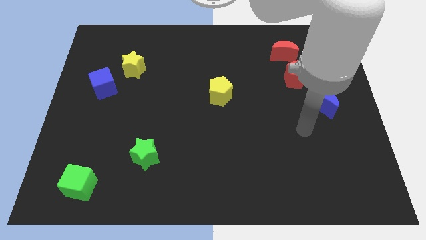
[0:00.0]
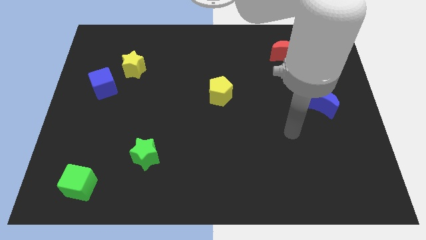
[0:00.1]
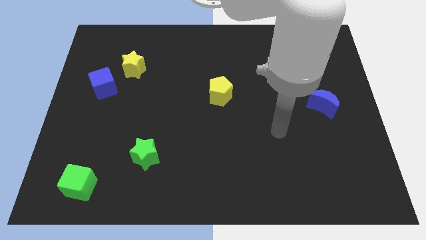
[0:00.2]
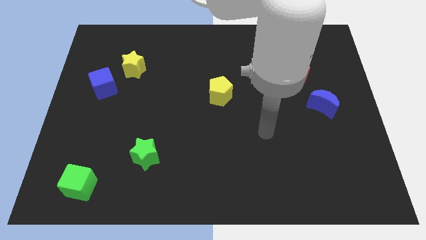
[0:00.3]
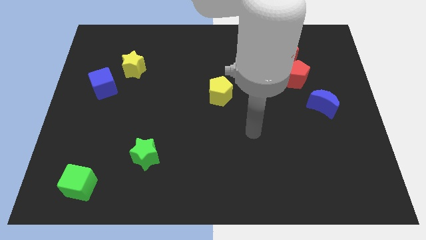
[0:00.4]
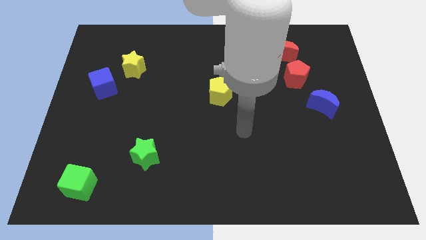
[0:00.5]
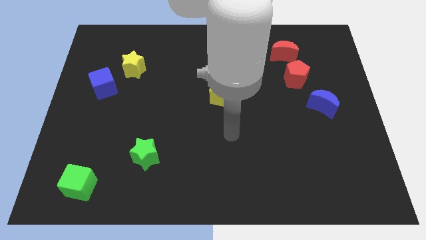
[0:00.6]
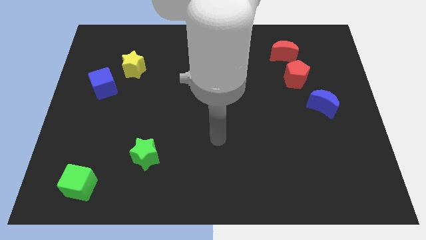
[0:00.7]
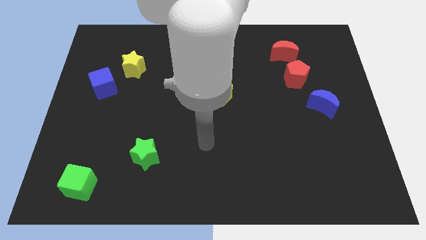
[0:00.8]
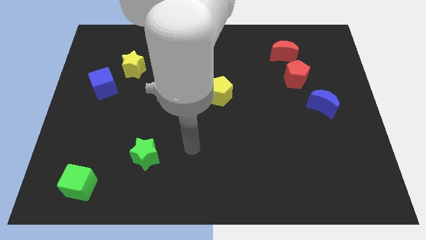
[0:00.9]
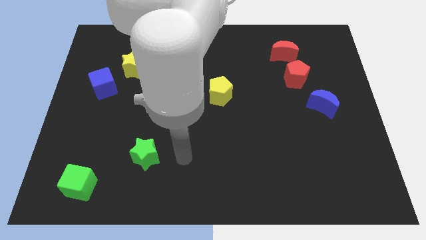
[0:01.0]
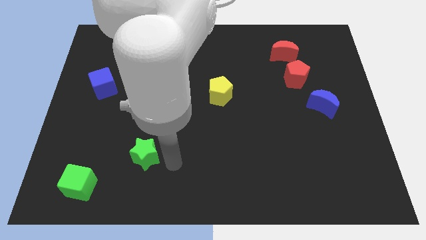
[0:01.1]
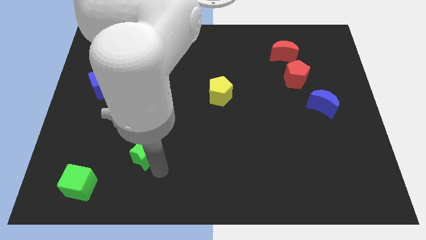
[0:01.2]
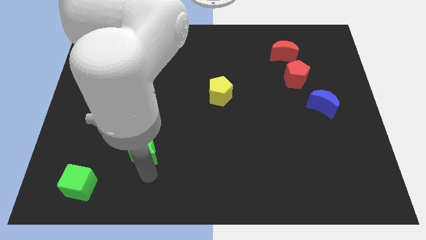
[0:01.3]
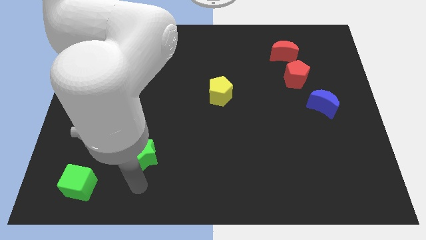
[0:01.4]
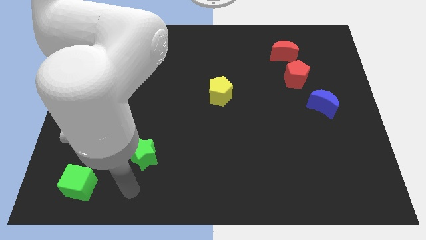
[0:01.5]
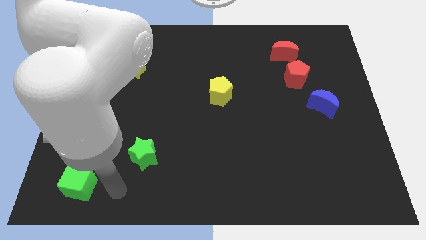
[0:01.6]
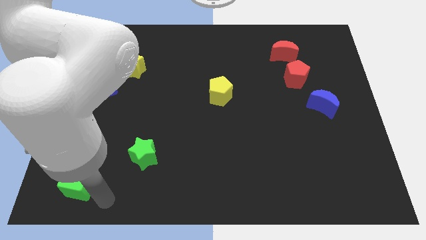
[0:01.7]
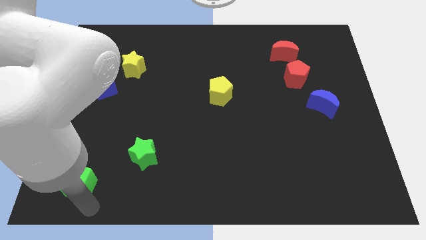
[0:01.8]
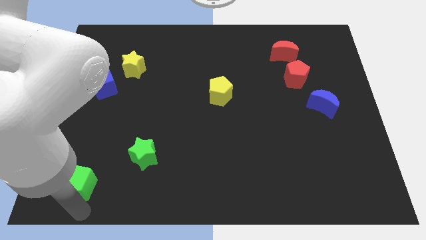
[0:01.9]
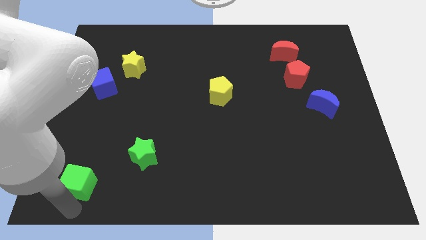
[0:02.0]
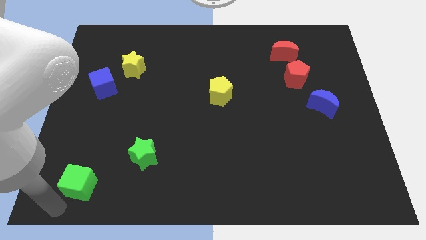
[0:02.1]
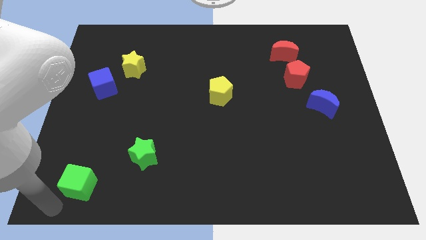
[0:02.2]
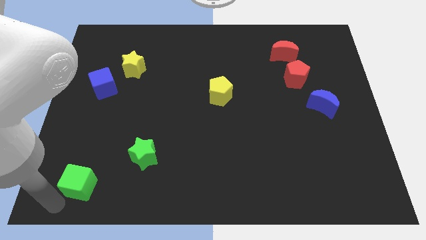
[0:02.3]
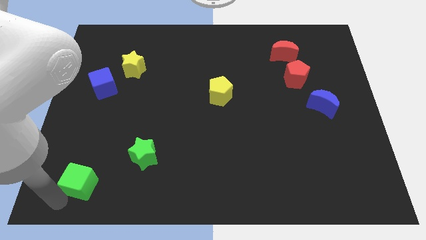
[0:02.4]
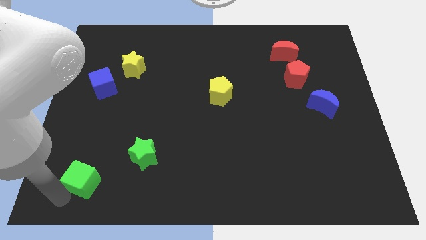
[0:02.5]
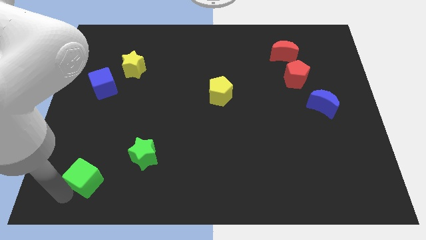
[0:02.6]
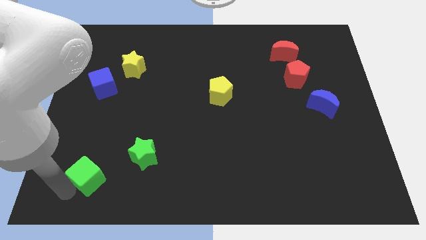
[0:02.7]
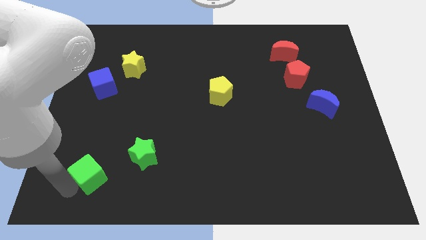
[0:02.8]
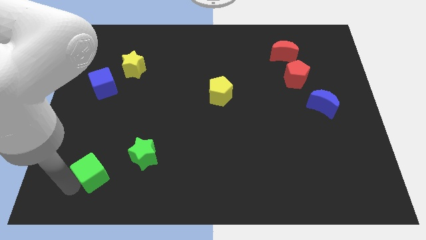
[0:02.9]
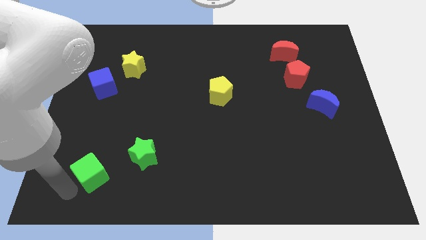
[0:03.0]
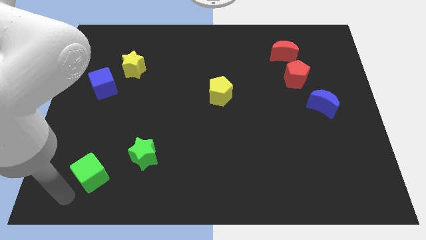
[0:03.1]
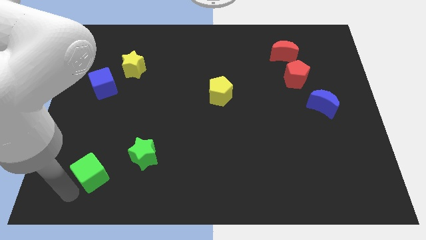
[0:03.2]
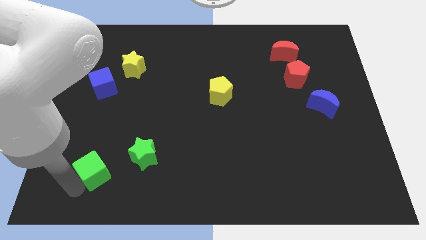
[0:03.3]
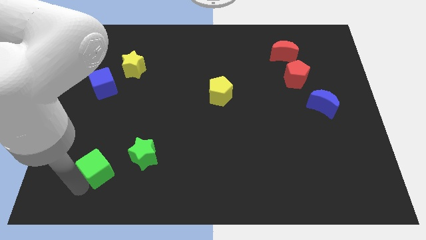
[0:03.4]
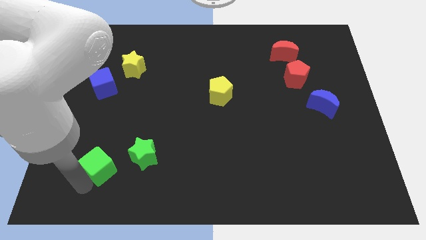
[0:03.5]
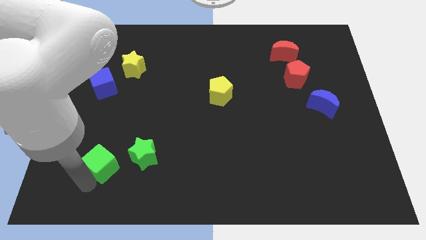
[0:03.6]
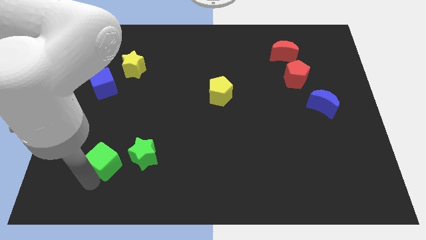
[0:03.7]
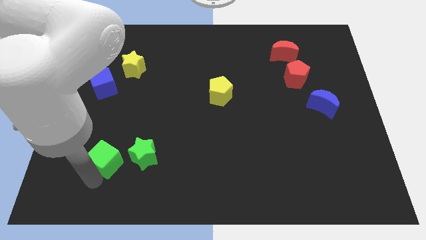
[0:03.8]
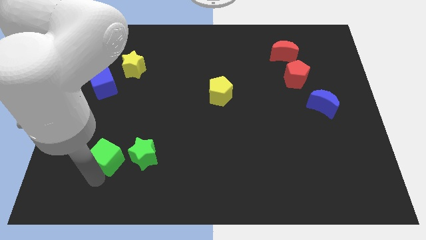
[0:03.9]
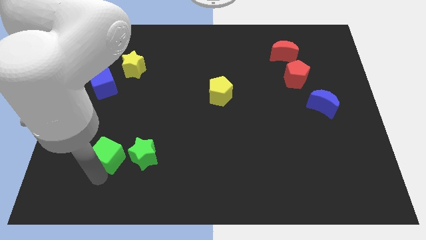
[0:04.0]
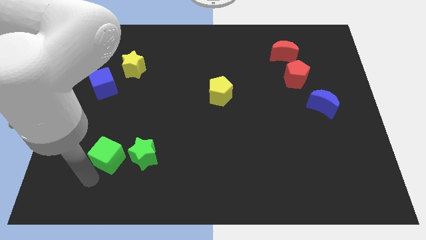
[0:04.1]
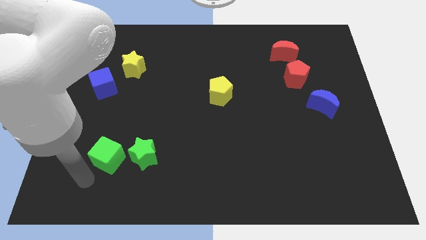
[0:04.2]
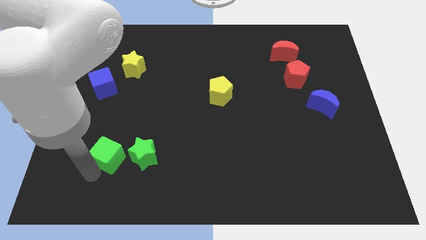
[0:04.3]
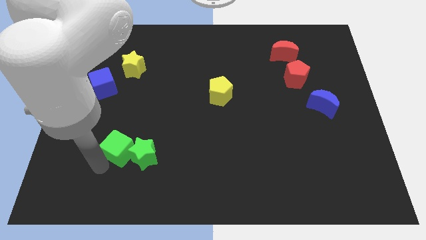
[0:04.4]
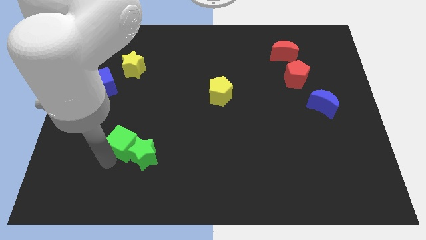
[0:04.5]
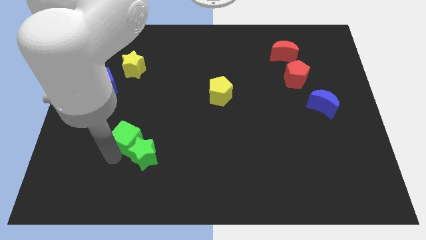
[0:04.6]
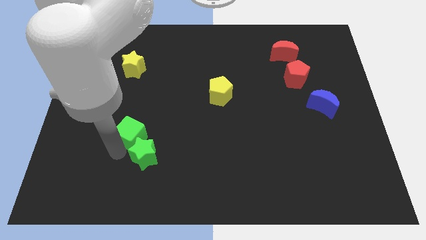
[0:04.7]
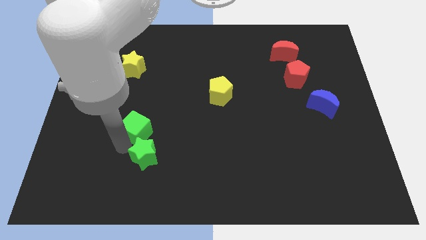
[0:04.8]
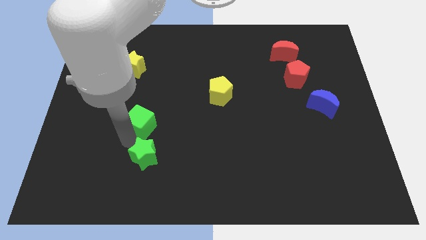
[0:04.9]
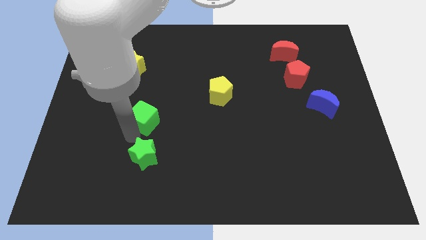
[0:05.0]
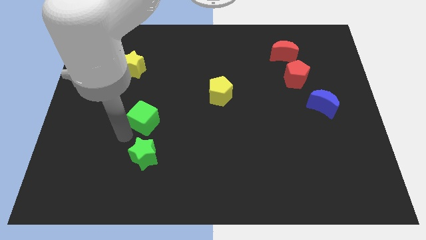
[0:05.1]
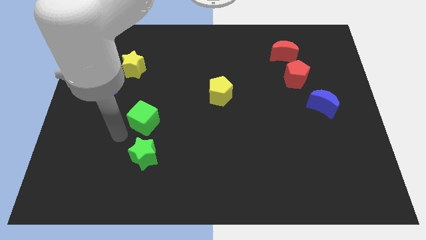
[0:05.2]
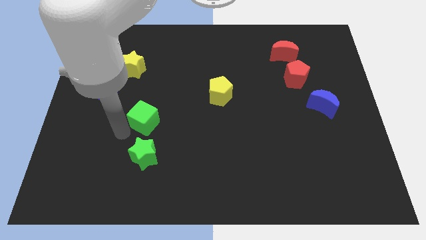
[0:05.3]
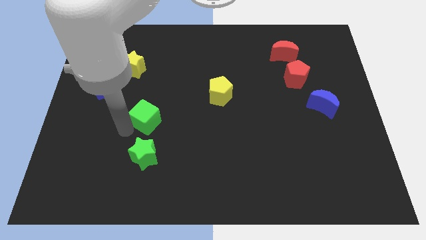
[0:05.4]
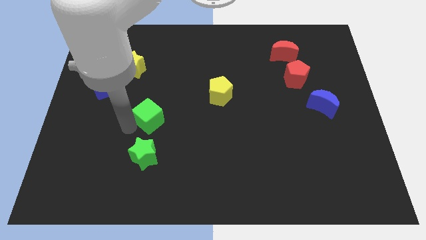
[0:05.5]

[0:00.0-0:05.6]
push the green cube diagonally upwards and to the right

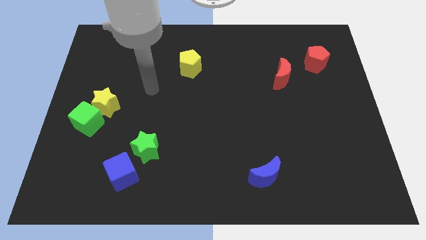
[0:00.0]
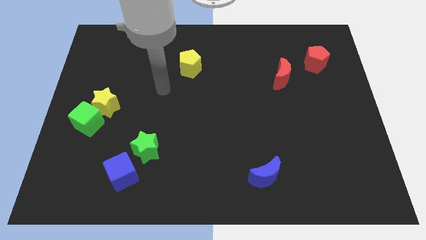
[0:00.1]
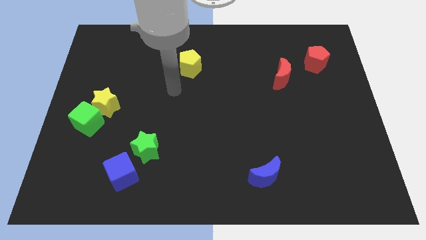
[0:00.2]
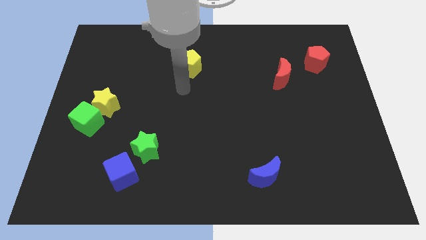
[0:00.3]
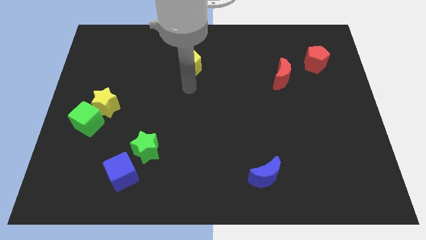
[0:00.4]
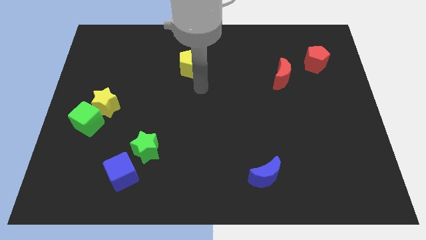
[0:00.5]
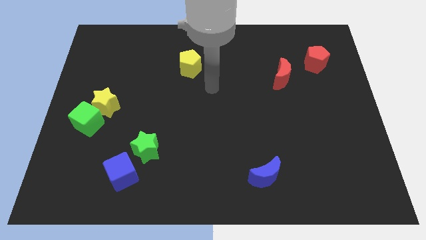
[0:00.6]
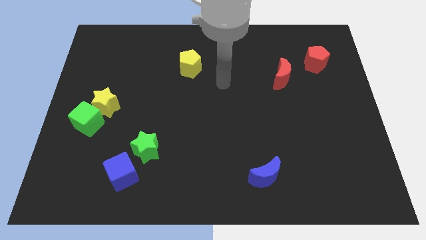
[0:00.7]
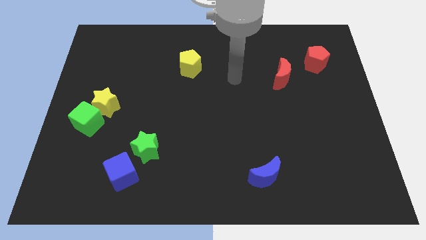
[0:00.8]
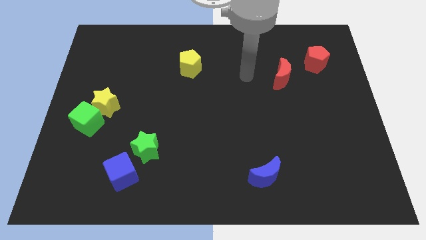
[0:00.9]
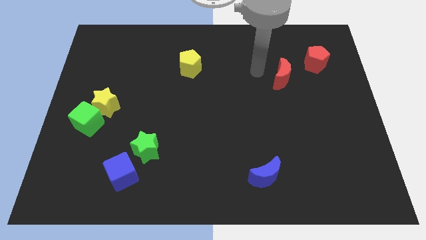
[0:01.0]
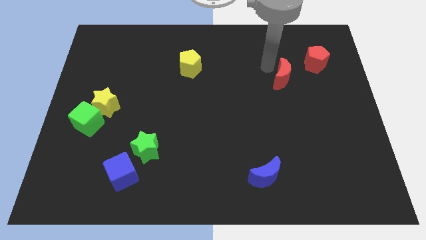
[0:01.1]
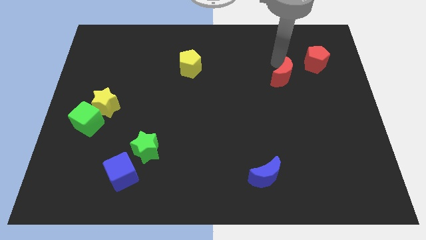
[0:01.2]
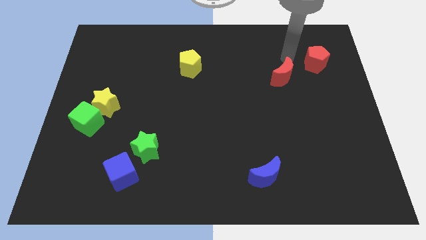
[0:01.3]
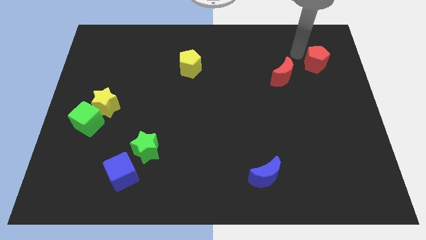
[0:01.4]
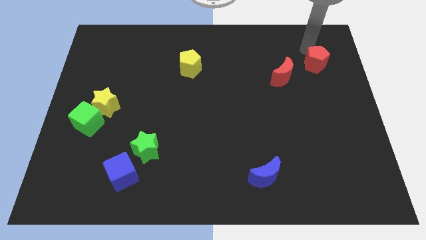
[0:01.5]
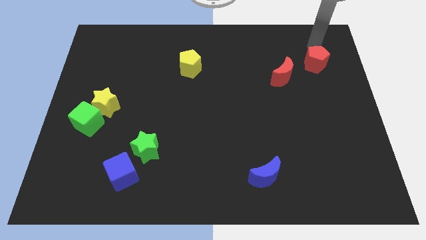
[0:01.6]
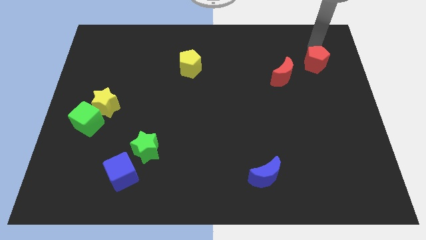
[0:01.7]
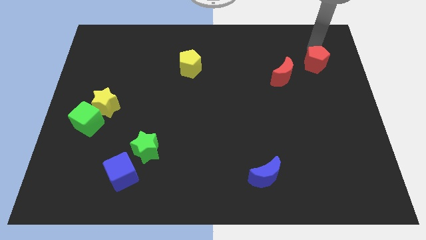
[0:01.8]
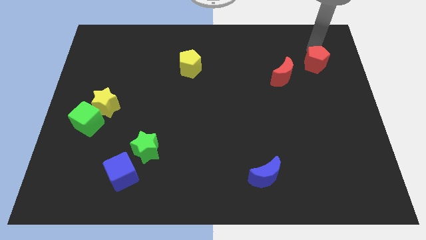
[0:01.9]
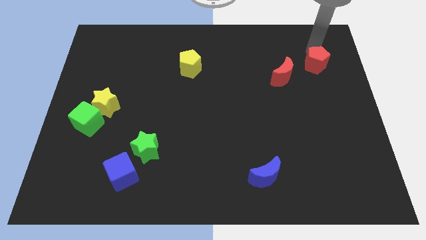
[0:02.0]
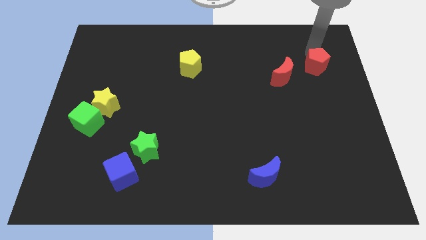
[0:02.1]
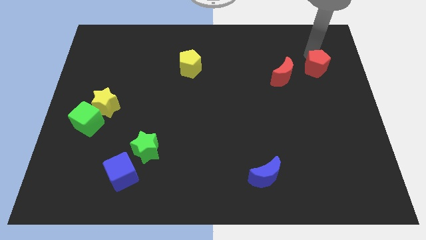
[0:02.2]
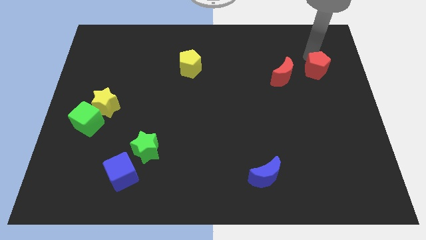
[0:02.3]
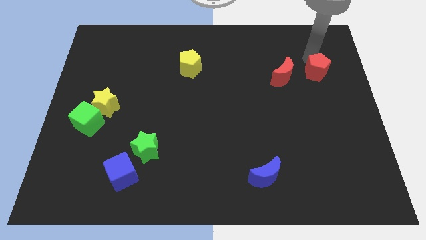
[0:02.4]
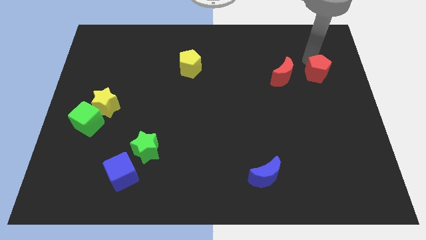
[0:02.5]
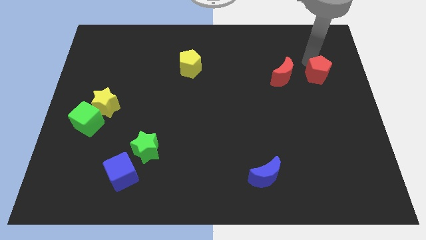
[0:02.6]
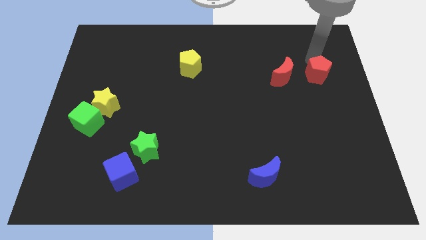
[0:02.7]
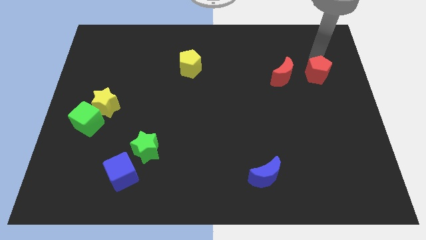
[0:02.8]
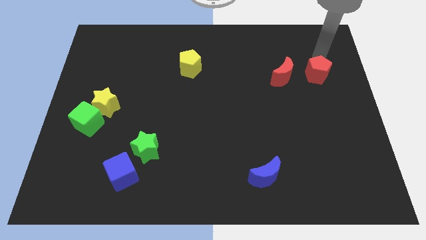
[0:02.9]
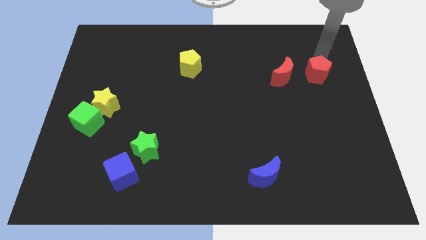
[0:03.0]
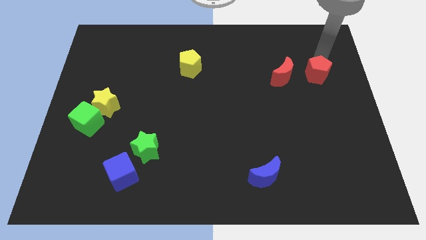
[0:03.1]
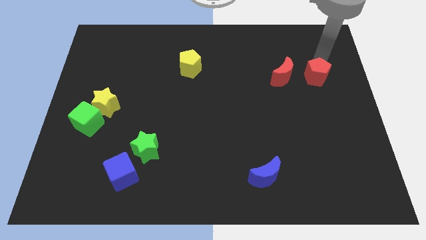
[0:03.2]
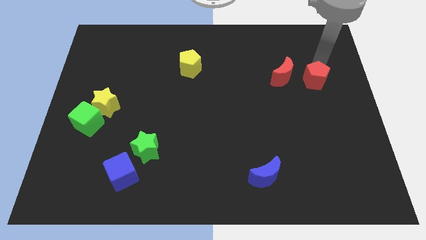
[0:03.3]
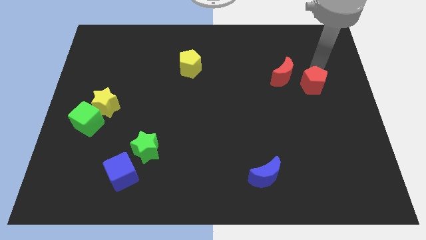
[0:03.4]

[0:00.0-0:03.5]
move the red pentagon downwards a bit
